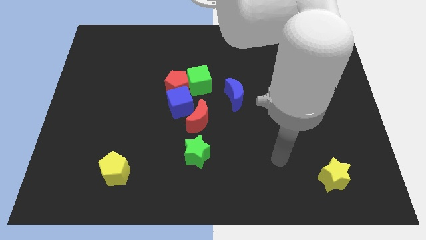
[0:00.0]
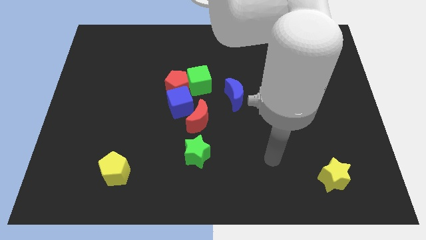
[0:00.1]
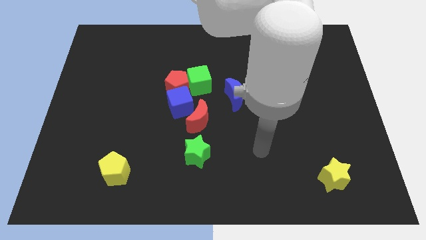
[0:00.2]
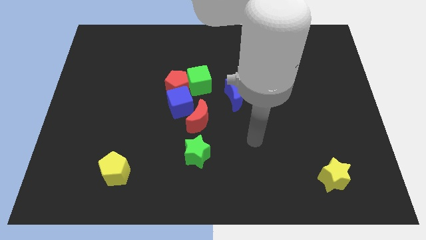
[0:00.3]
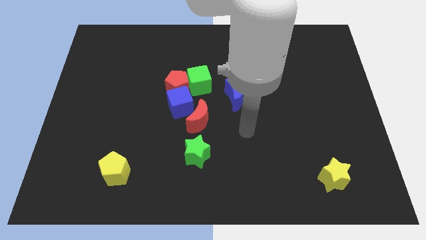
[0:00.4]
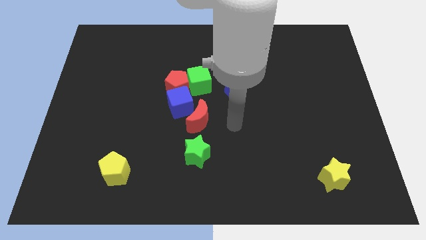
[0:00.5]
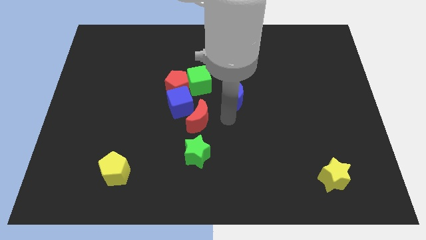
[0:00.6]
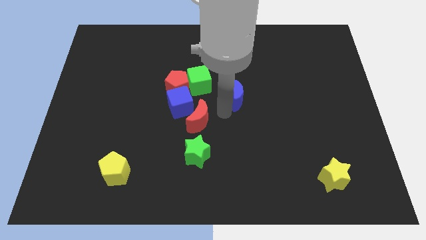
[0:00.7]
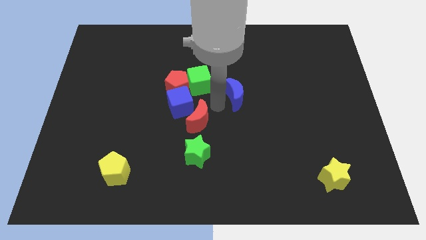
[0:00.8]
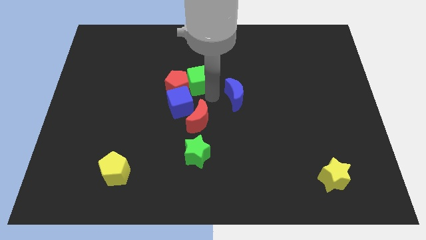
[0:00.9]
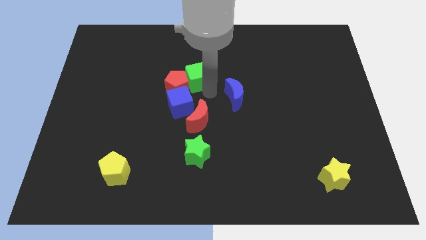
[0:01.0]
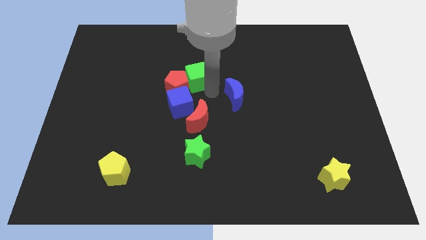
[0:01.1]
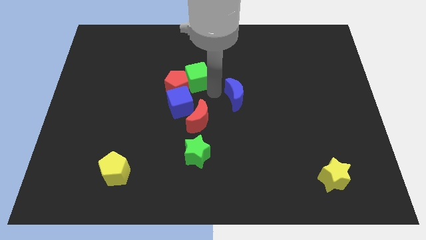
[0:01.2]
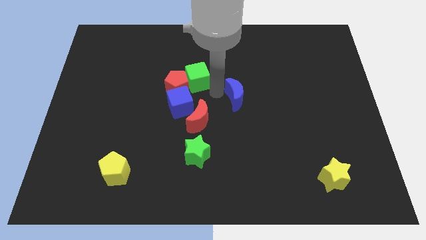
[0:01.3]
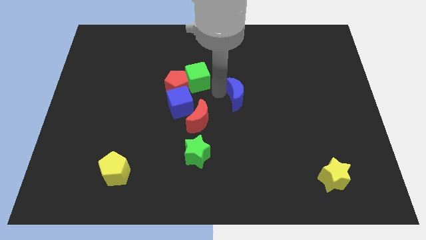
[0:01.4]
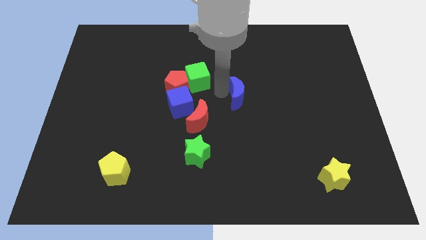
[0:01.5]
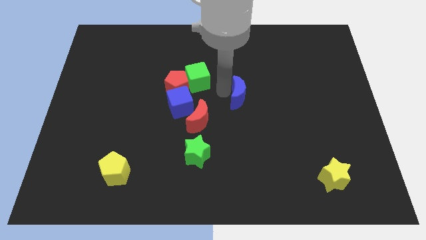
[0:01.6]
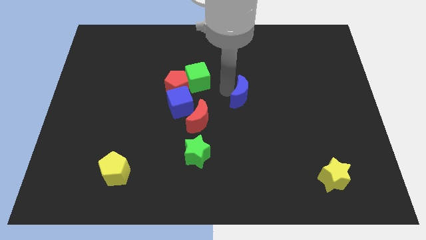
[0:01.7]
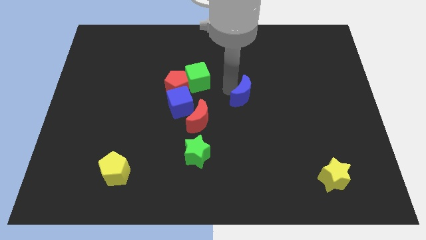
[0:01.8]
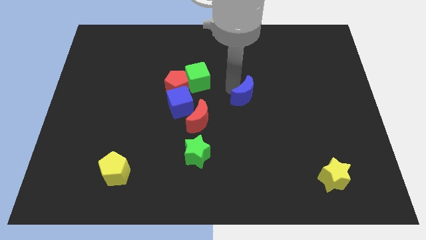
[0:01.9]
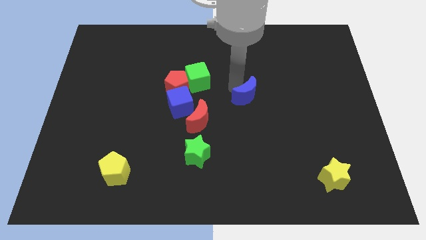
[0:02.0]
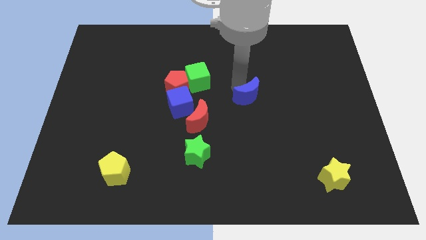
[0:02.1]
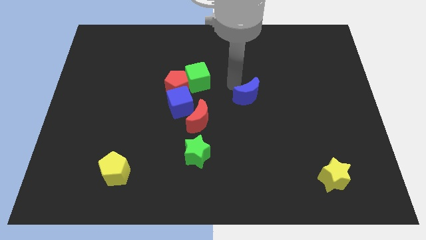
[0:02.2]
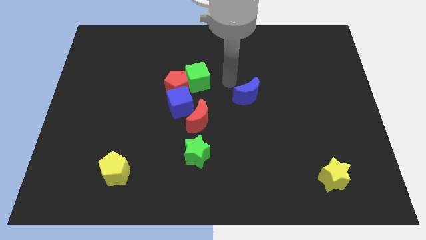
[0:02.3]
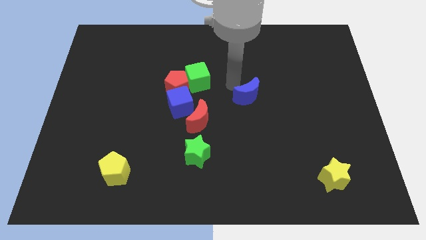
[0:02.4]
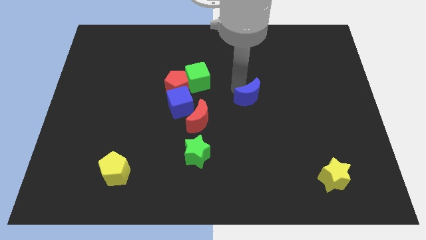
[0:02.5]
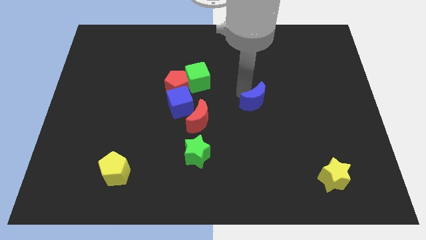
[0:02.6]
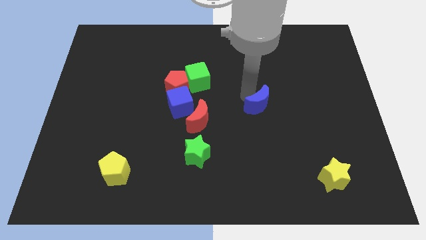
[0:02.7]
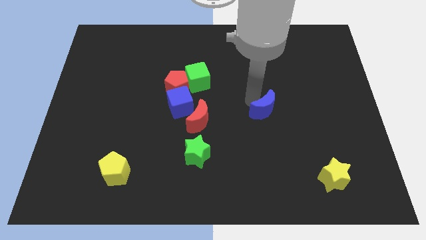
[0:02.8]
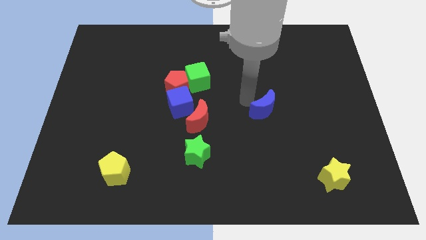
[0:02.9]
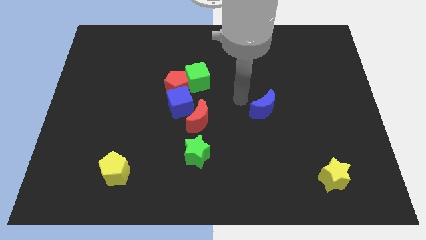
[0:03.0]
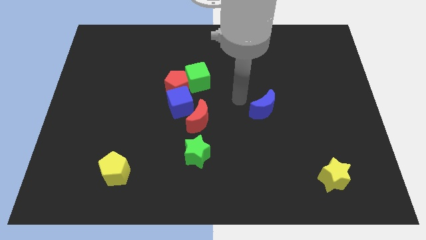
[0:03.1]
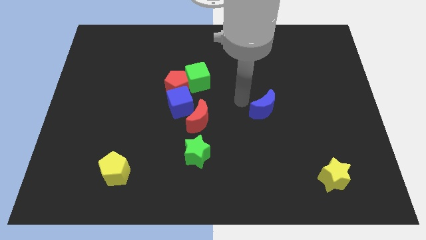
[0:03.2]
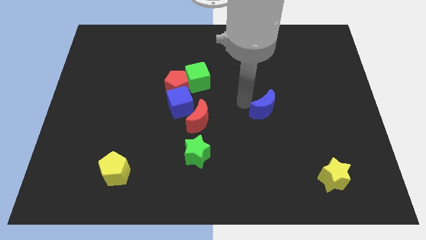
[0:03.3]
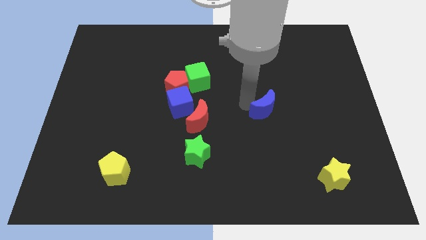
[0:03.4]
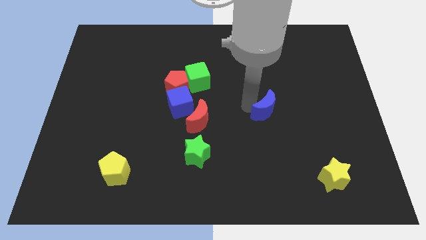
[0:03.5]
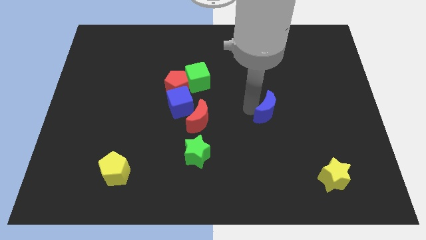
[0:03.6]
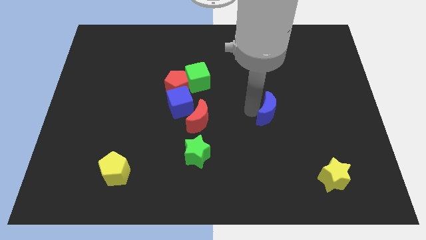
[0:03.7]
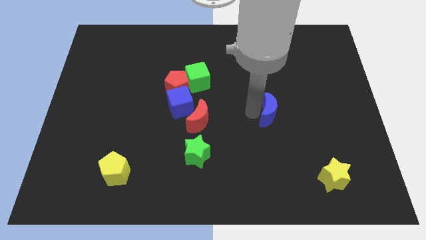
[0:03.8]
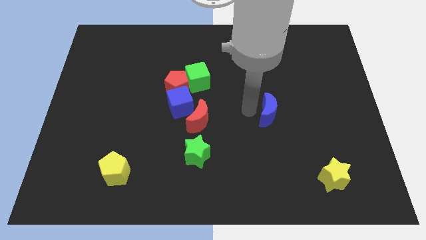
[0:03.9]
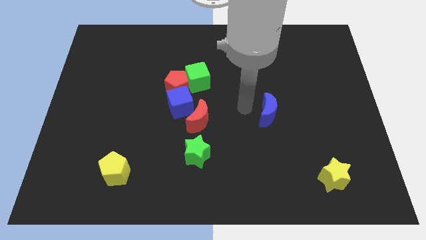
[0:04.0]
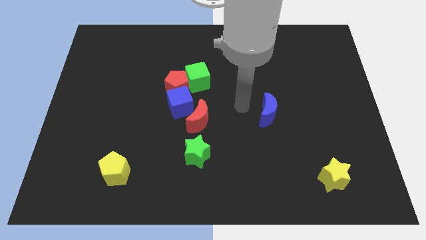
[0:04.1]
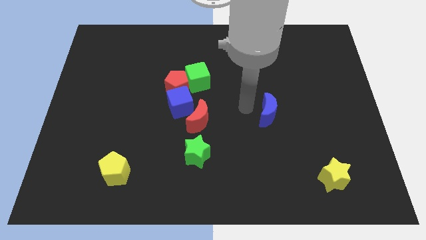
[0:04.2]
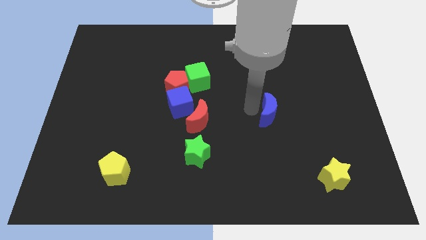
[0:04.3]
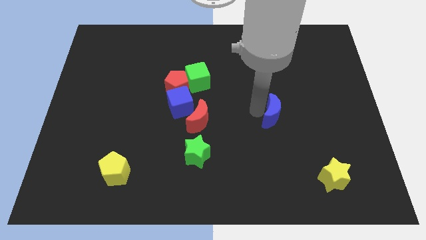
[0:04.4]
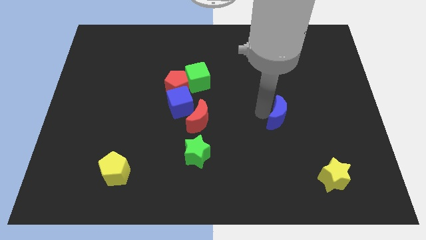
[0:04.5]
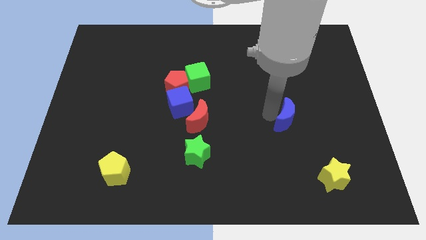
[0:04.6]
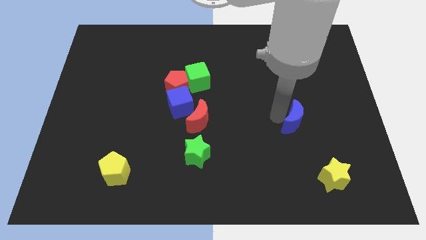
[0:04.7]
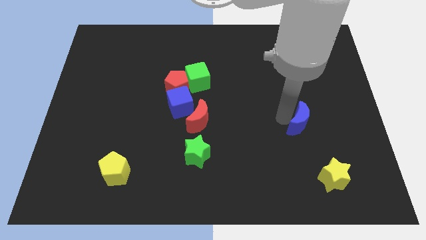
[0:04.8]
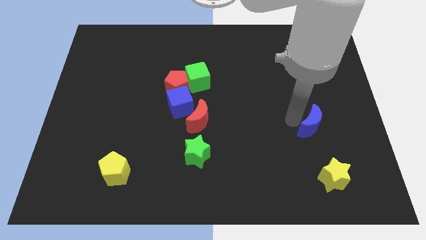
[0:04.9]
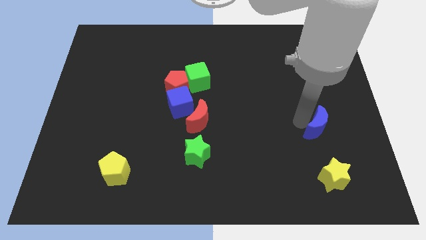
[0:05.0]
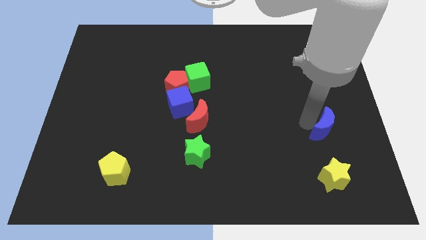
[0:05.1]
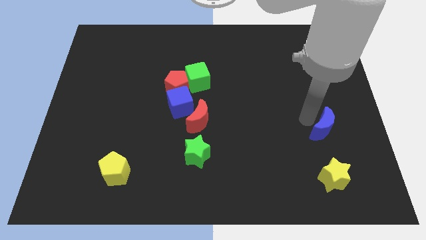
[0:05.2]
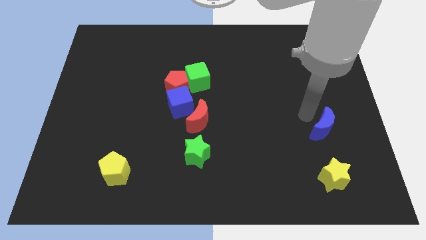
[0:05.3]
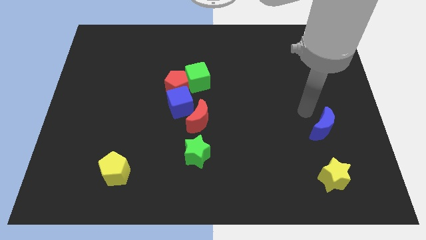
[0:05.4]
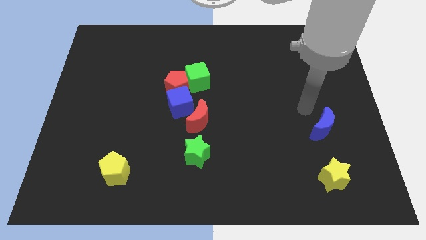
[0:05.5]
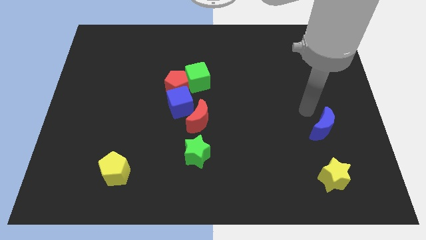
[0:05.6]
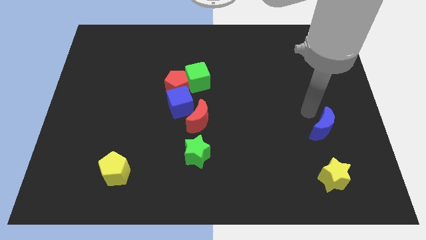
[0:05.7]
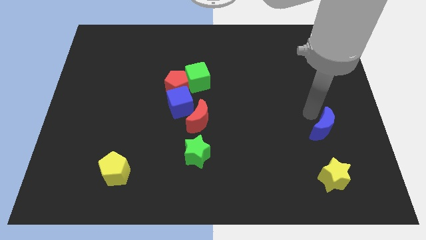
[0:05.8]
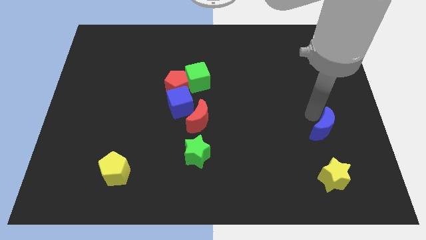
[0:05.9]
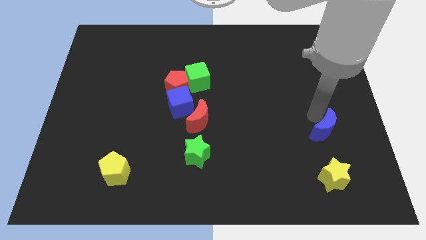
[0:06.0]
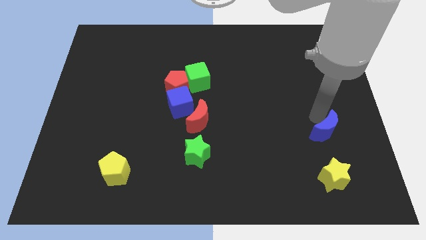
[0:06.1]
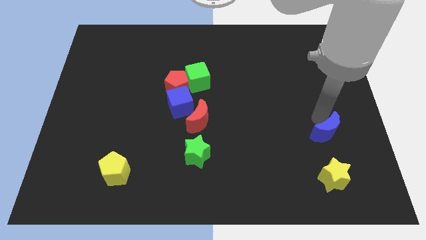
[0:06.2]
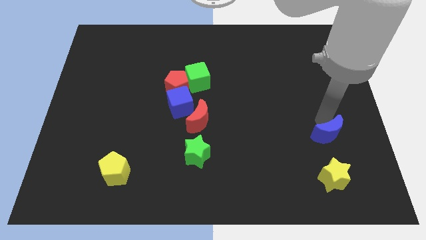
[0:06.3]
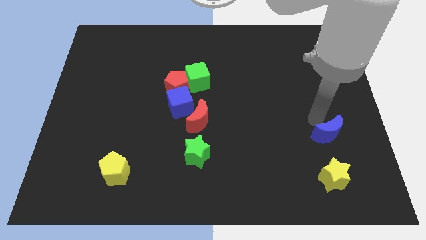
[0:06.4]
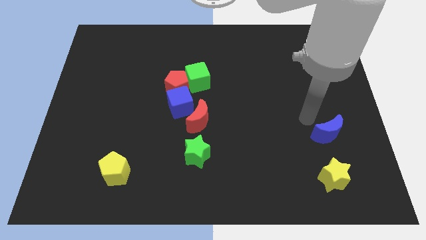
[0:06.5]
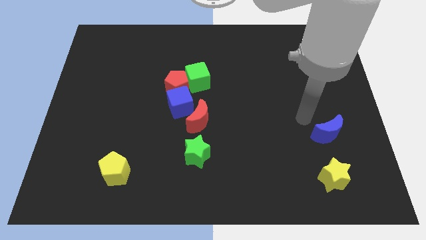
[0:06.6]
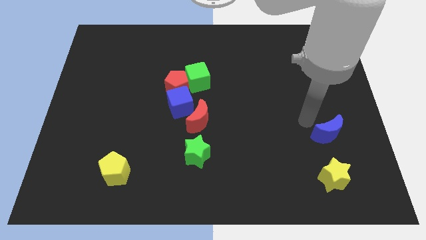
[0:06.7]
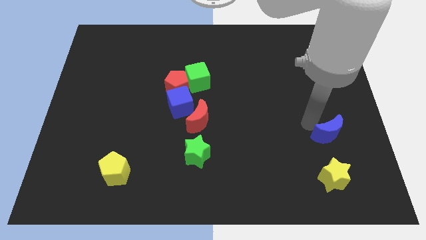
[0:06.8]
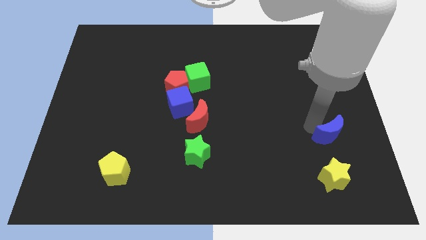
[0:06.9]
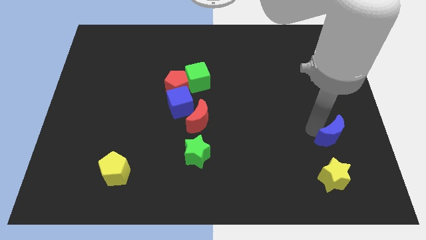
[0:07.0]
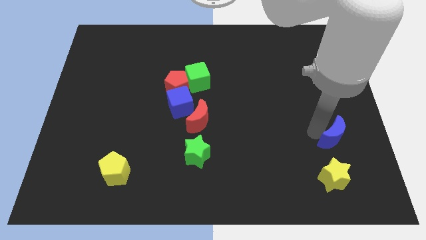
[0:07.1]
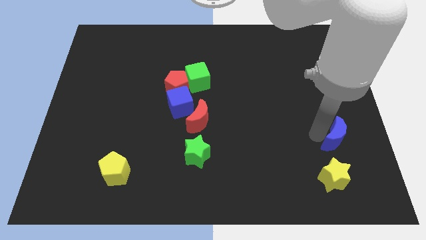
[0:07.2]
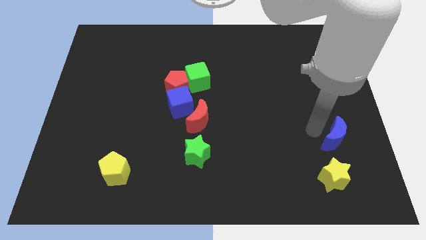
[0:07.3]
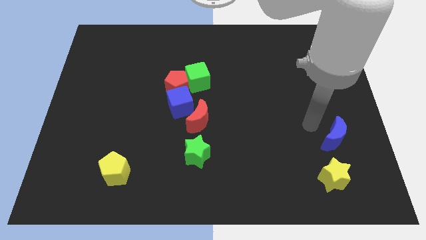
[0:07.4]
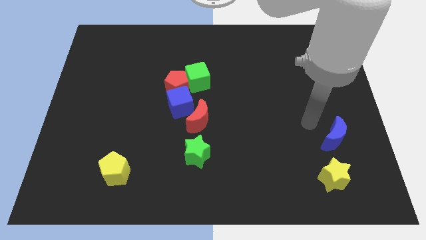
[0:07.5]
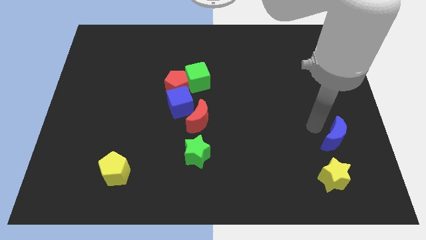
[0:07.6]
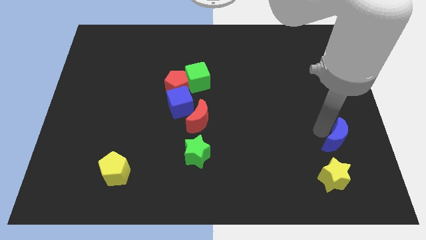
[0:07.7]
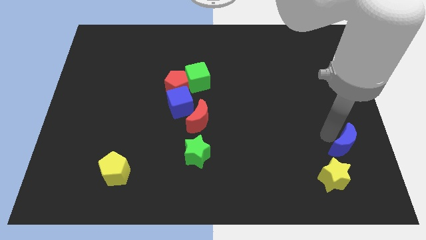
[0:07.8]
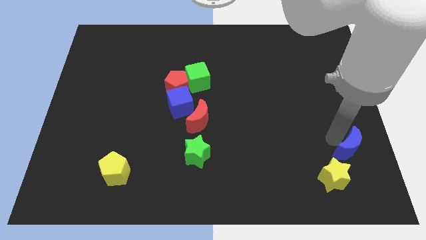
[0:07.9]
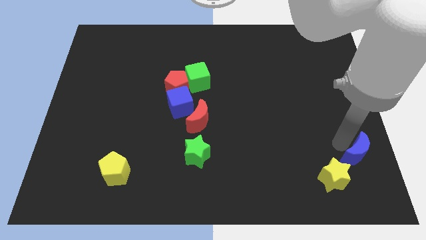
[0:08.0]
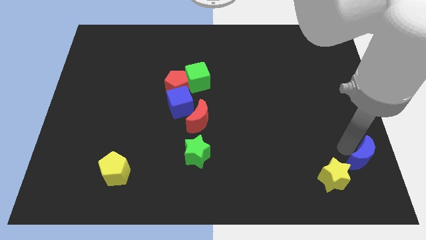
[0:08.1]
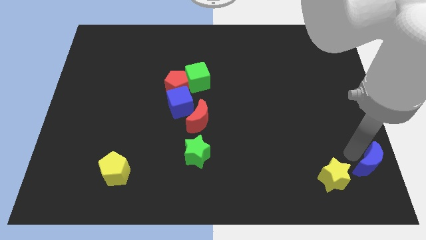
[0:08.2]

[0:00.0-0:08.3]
slide the blue moon to the bottom right
